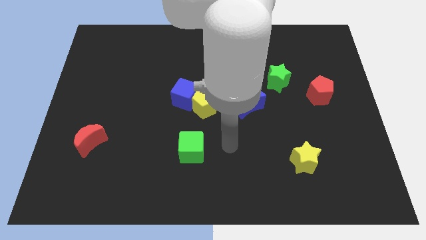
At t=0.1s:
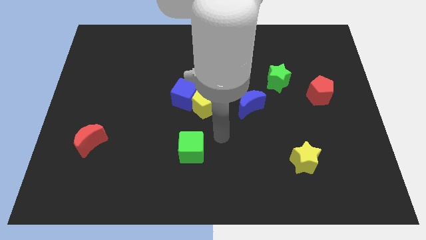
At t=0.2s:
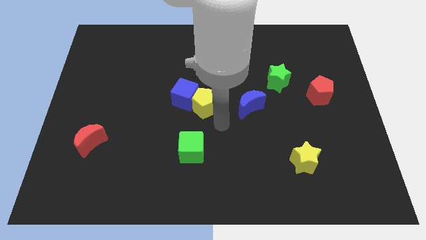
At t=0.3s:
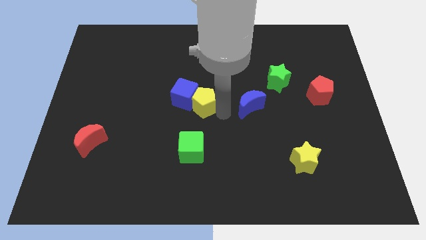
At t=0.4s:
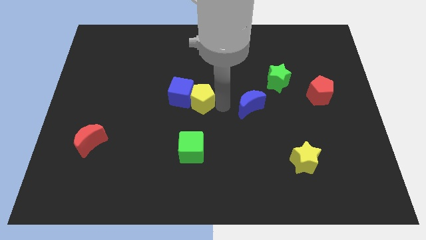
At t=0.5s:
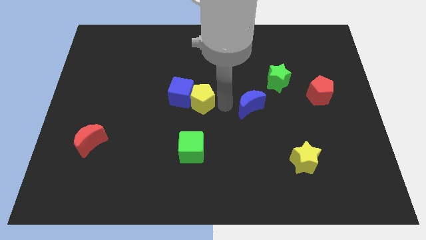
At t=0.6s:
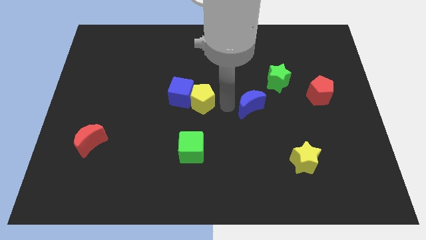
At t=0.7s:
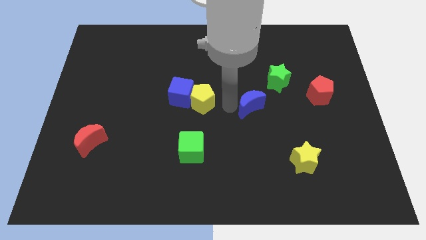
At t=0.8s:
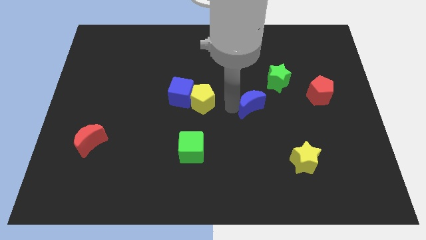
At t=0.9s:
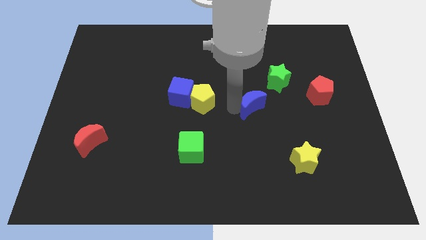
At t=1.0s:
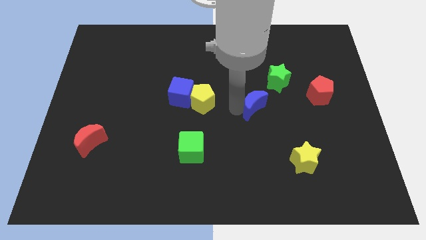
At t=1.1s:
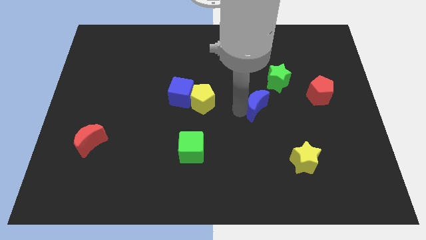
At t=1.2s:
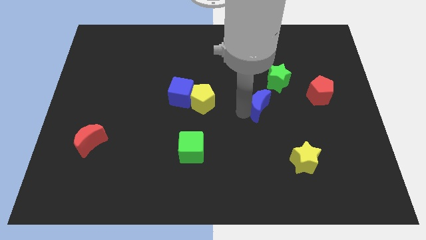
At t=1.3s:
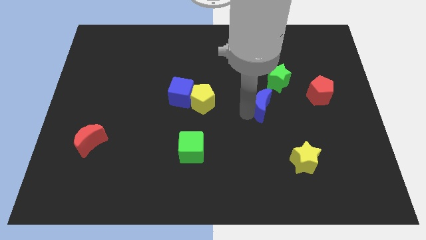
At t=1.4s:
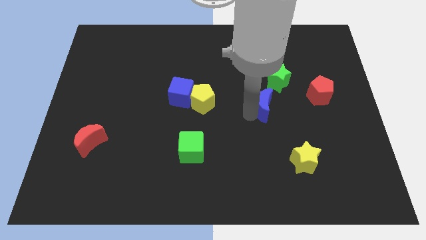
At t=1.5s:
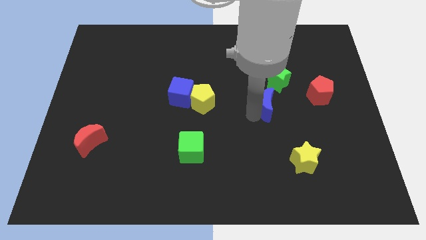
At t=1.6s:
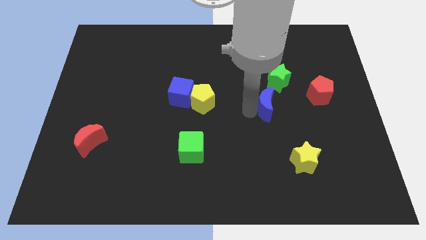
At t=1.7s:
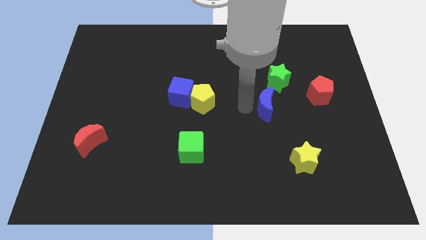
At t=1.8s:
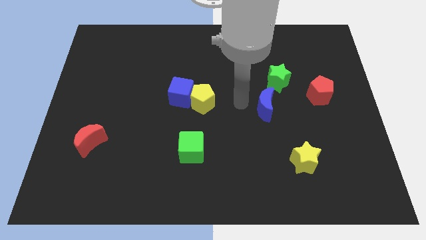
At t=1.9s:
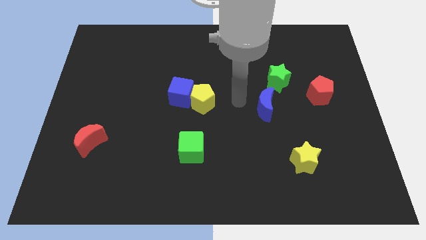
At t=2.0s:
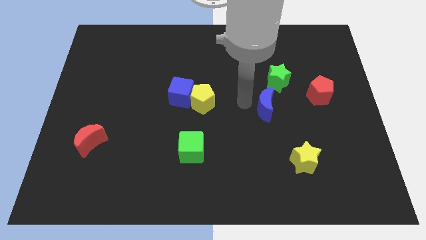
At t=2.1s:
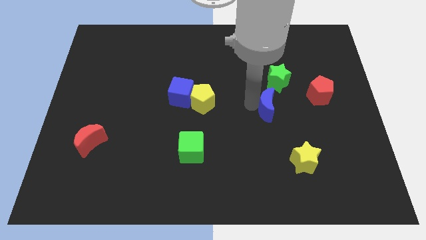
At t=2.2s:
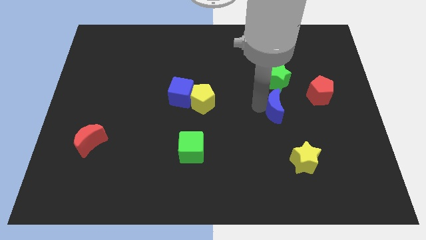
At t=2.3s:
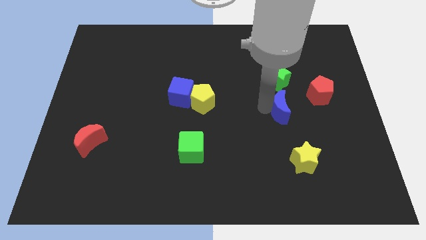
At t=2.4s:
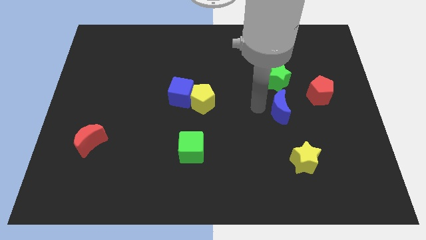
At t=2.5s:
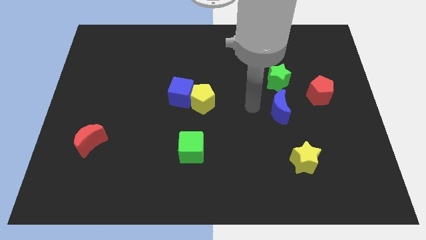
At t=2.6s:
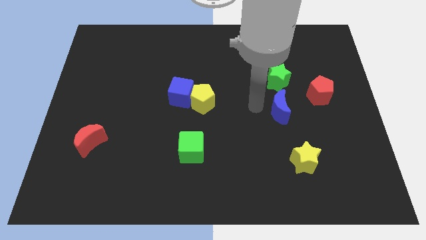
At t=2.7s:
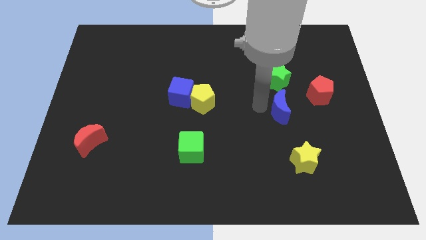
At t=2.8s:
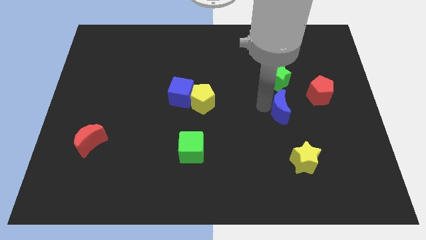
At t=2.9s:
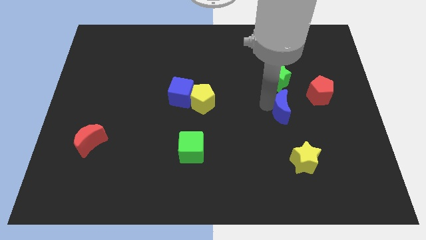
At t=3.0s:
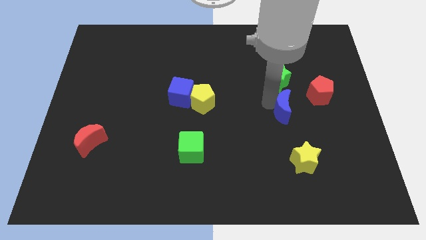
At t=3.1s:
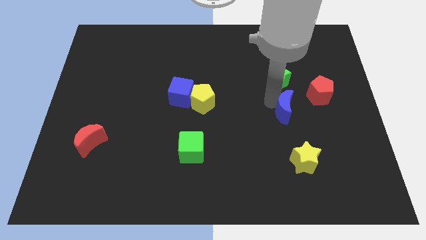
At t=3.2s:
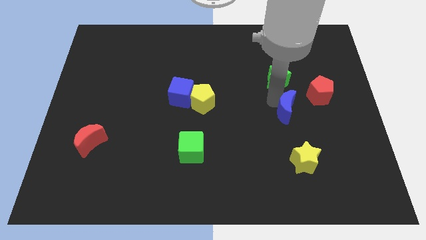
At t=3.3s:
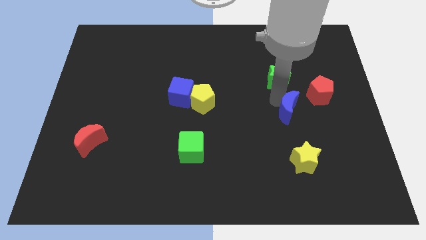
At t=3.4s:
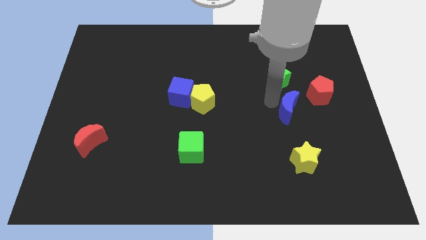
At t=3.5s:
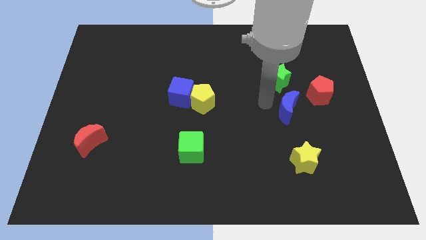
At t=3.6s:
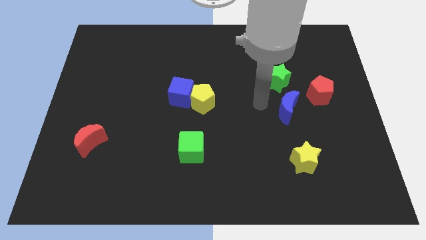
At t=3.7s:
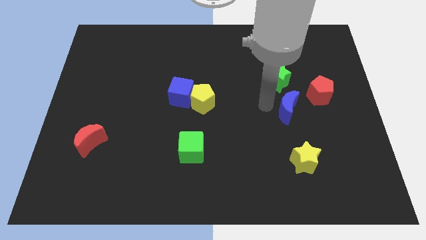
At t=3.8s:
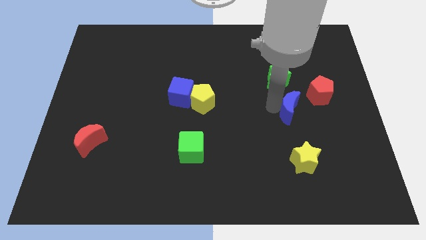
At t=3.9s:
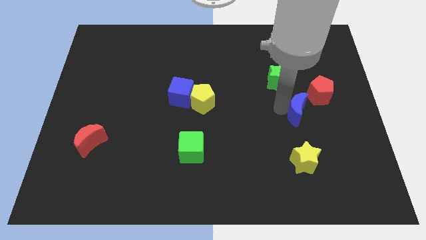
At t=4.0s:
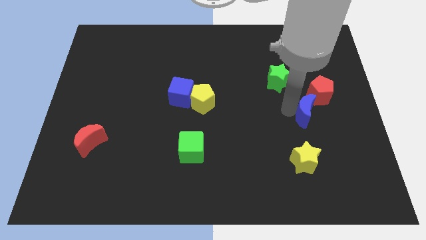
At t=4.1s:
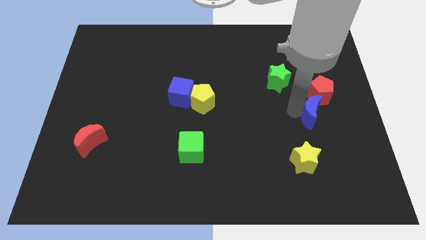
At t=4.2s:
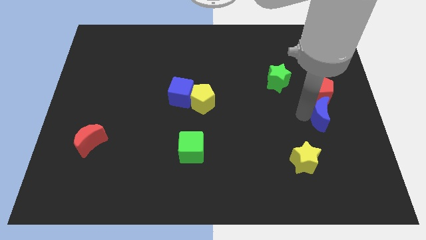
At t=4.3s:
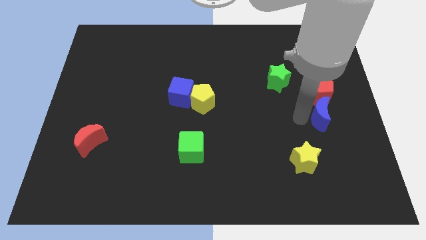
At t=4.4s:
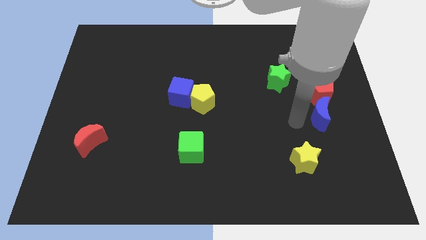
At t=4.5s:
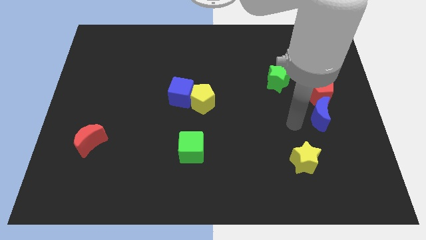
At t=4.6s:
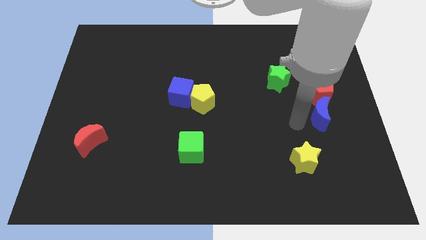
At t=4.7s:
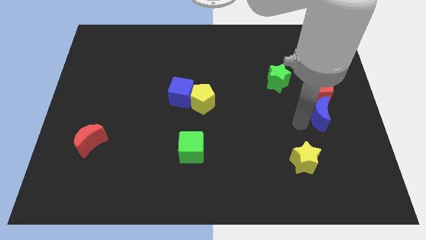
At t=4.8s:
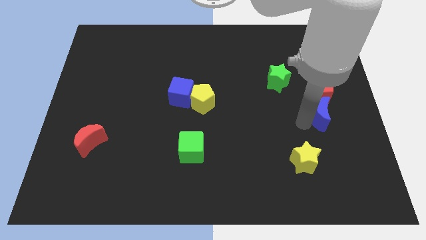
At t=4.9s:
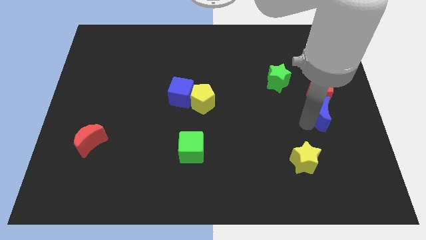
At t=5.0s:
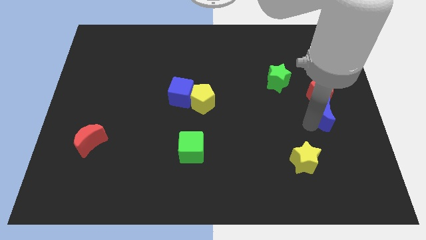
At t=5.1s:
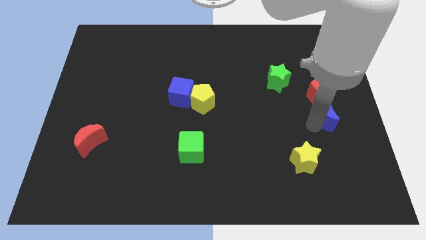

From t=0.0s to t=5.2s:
move the blue moon to the right side

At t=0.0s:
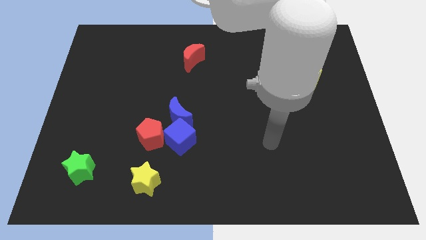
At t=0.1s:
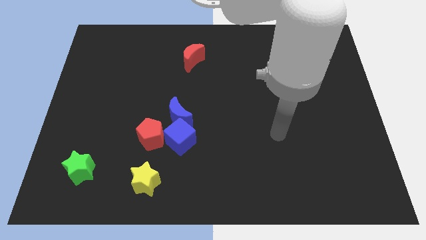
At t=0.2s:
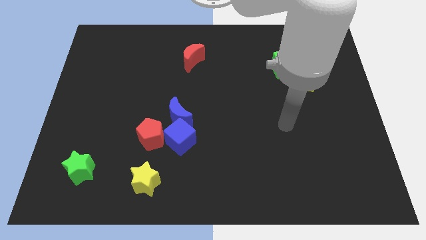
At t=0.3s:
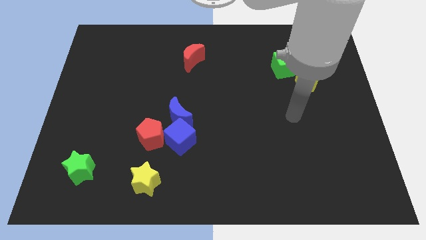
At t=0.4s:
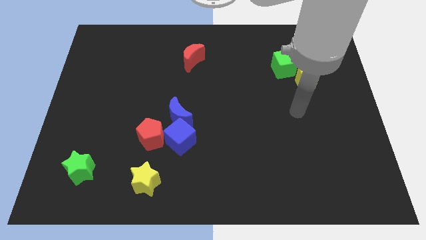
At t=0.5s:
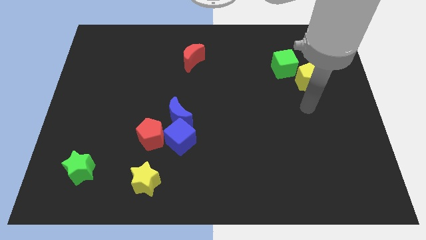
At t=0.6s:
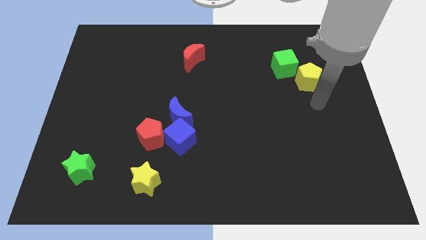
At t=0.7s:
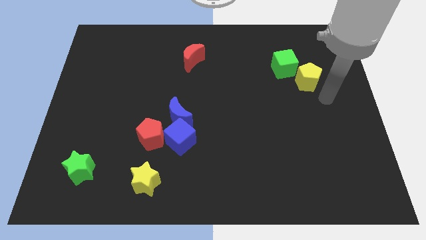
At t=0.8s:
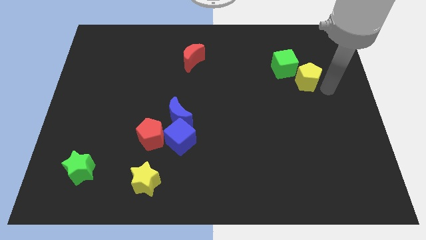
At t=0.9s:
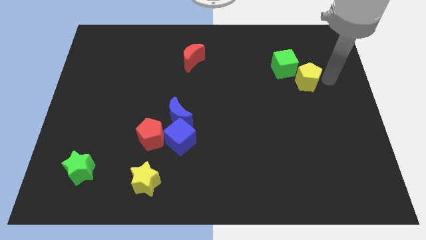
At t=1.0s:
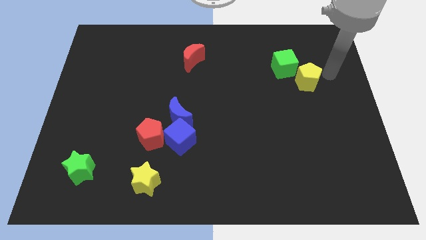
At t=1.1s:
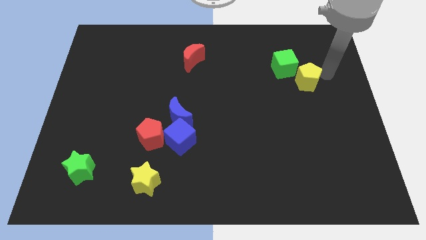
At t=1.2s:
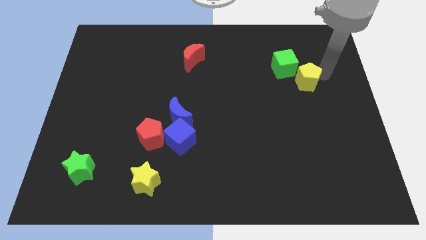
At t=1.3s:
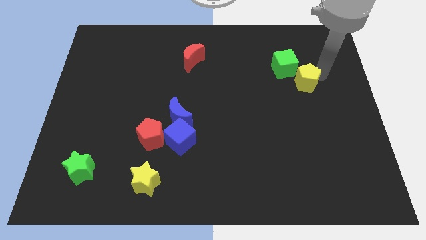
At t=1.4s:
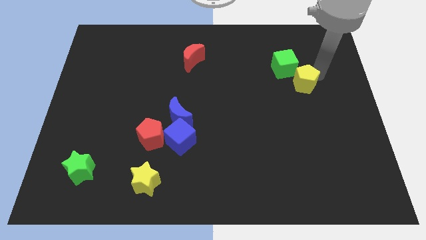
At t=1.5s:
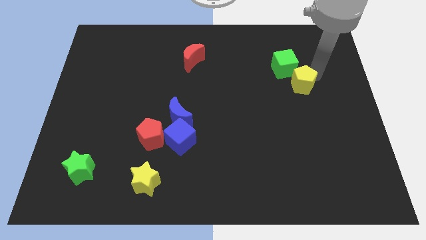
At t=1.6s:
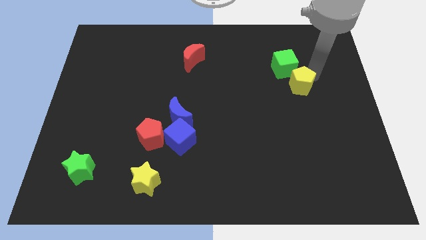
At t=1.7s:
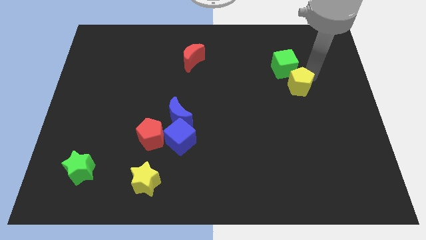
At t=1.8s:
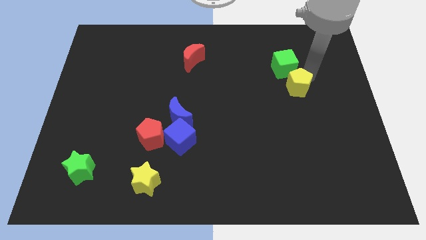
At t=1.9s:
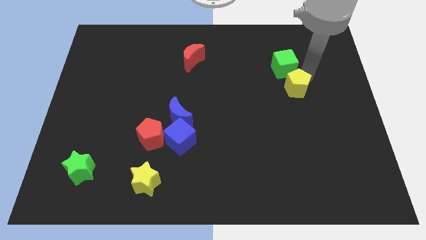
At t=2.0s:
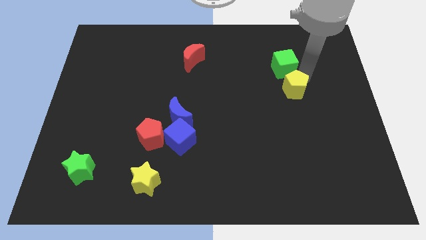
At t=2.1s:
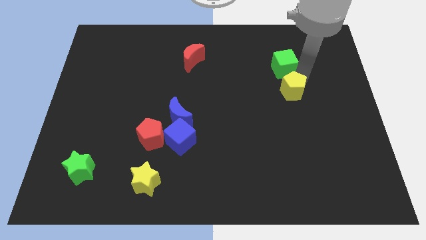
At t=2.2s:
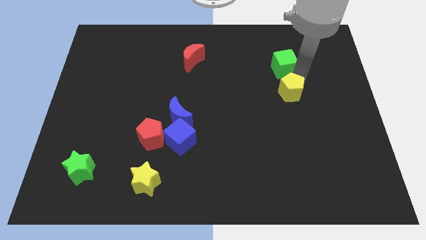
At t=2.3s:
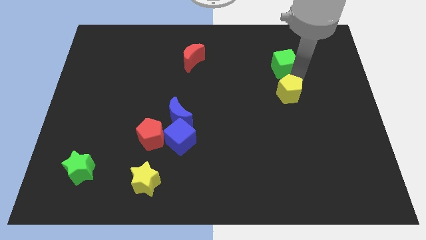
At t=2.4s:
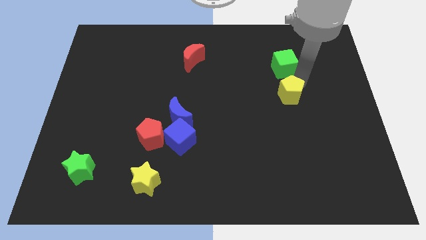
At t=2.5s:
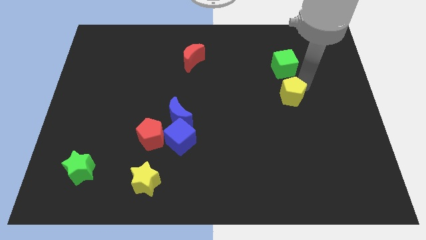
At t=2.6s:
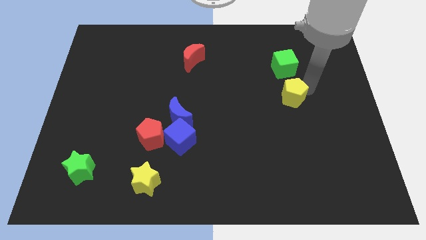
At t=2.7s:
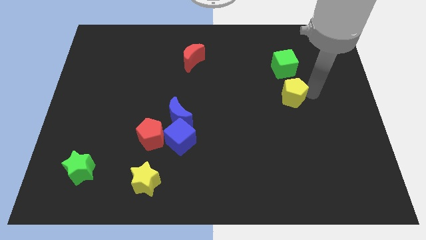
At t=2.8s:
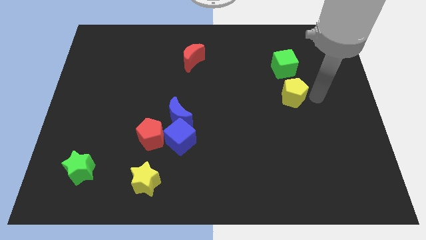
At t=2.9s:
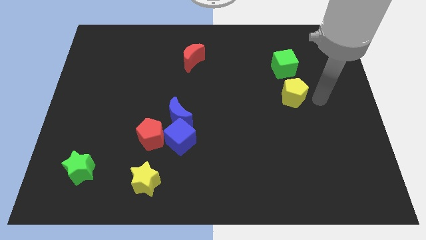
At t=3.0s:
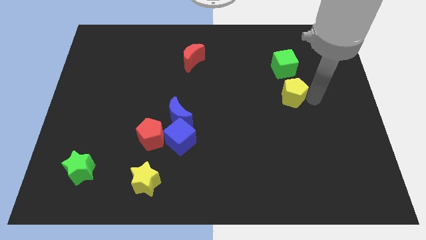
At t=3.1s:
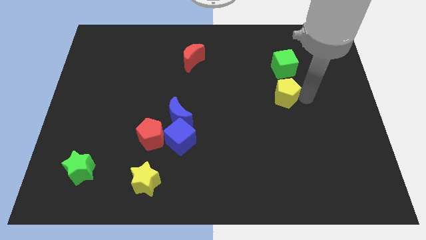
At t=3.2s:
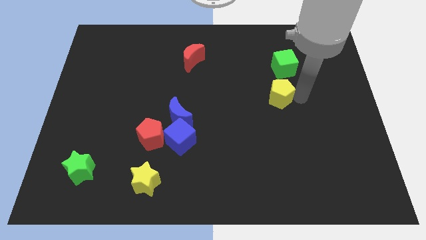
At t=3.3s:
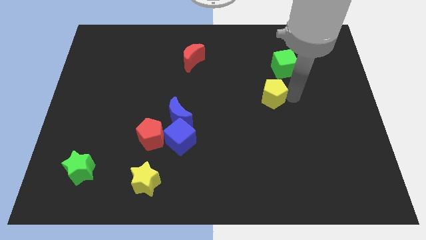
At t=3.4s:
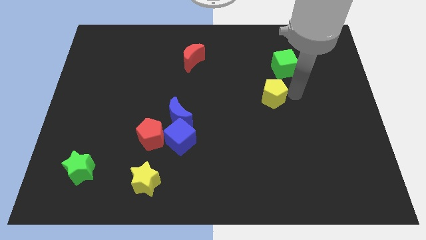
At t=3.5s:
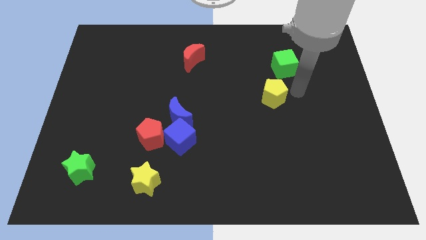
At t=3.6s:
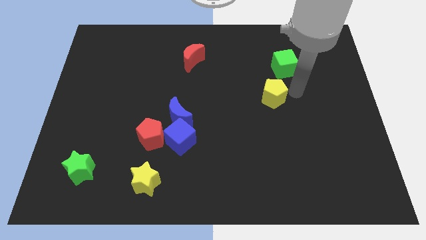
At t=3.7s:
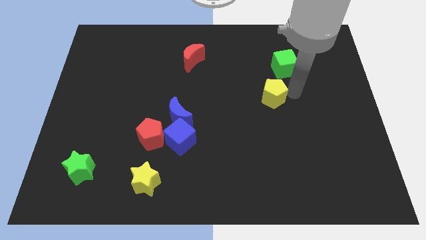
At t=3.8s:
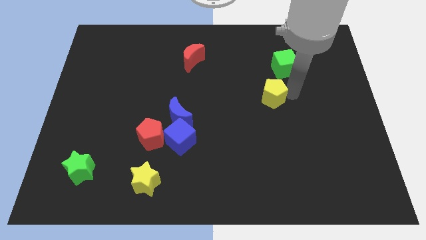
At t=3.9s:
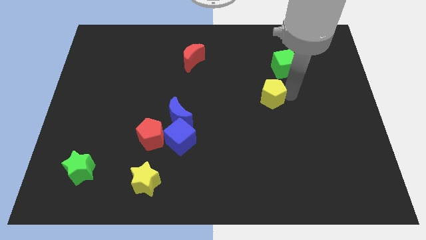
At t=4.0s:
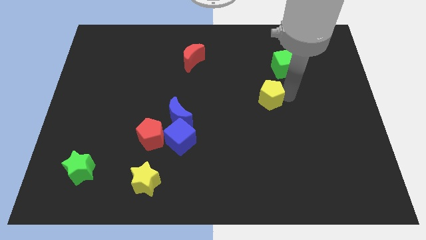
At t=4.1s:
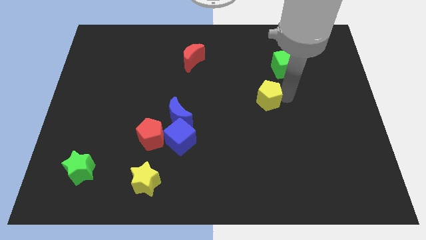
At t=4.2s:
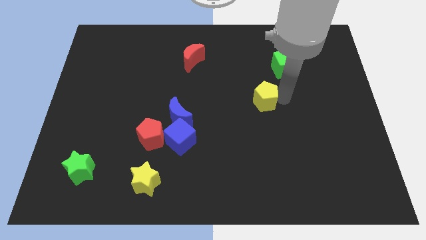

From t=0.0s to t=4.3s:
move the yellow pentagon to the middle of the board
